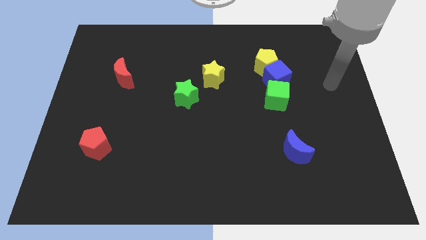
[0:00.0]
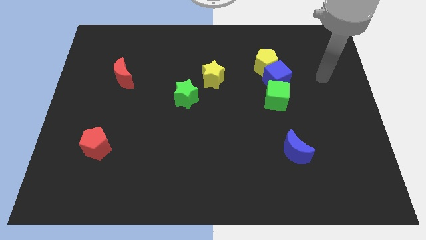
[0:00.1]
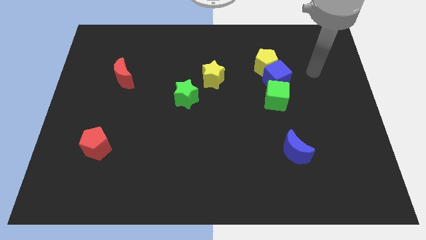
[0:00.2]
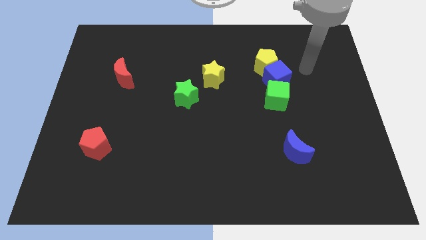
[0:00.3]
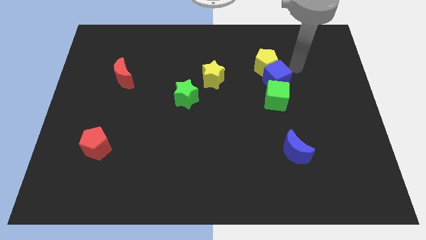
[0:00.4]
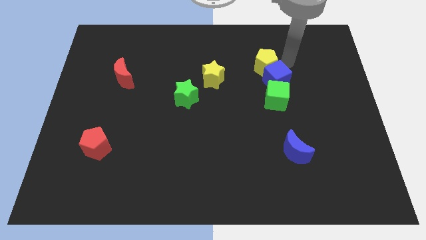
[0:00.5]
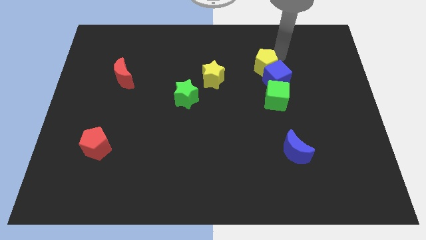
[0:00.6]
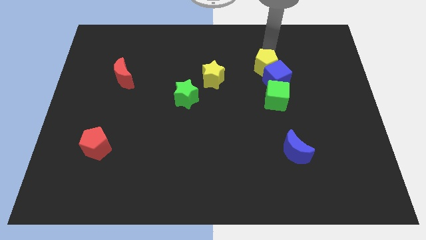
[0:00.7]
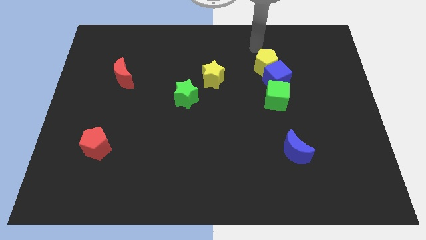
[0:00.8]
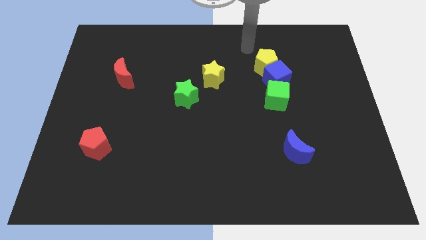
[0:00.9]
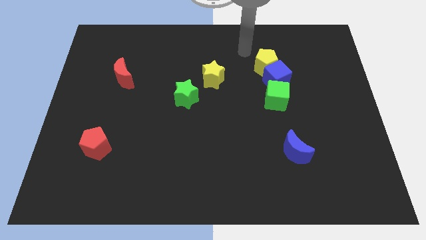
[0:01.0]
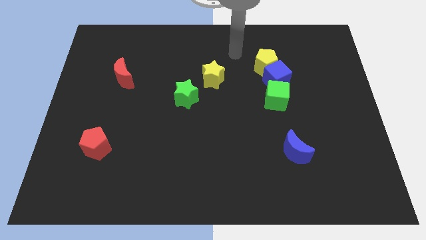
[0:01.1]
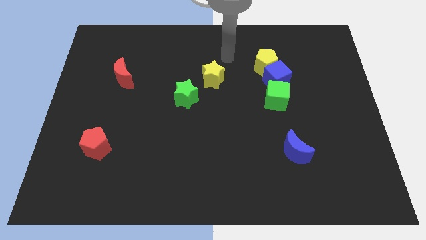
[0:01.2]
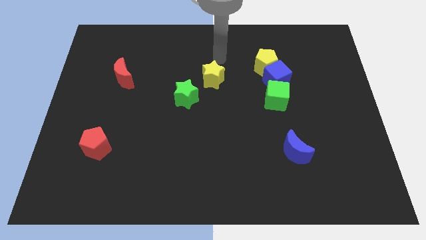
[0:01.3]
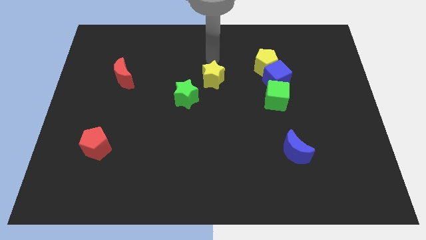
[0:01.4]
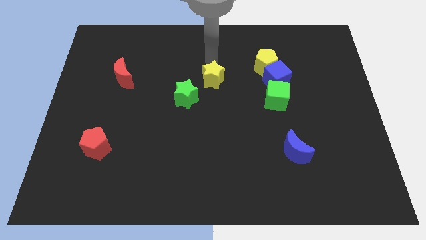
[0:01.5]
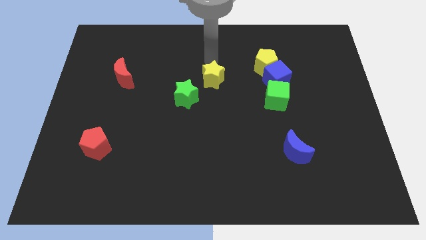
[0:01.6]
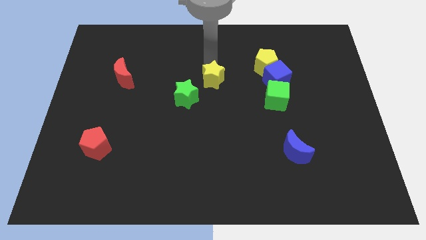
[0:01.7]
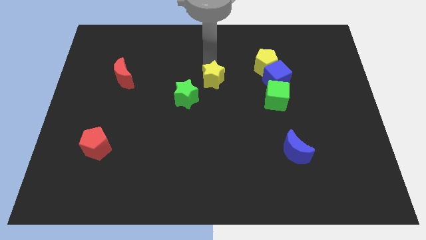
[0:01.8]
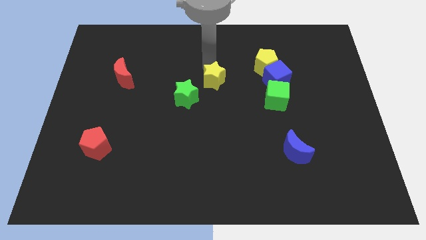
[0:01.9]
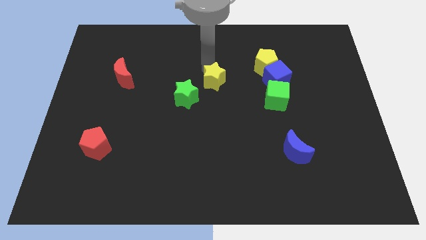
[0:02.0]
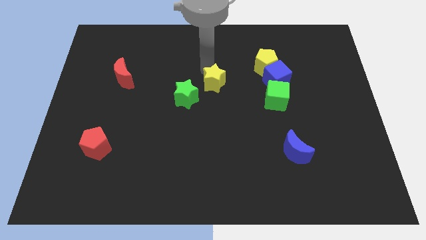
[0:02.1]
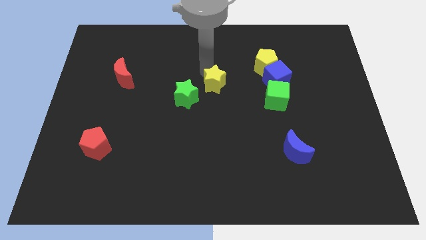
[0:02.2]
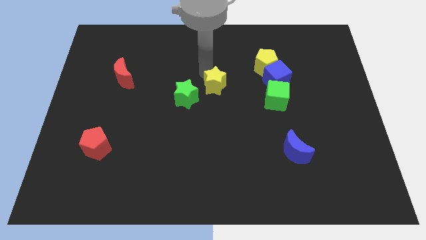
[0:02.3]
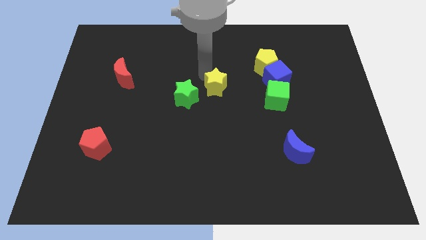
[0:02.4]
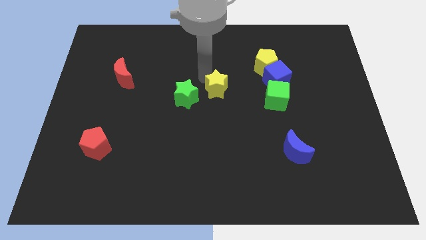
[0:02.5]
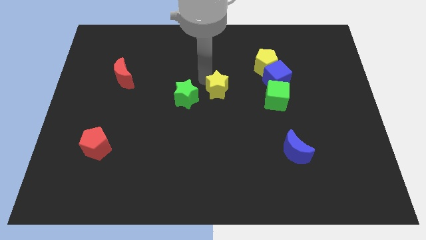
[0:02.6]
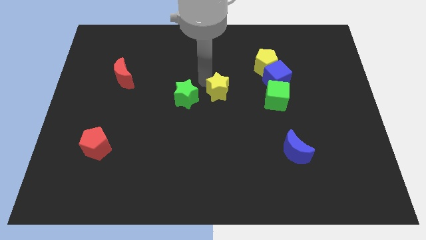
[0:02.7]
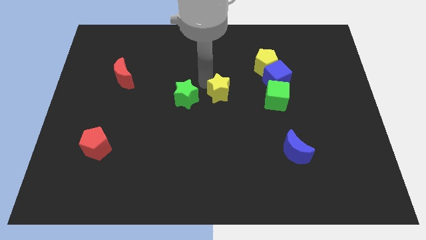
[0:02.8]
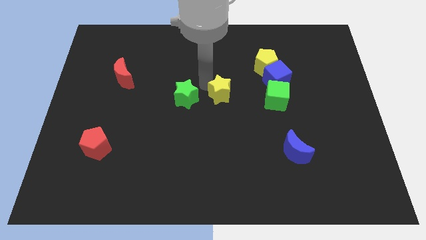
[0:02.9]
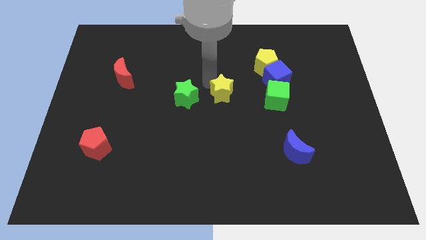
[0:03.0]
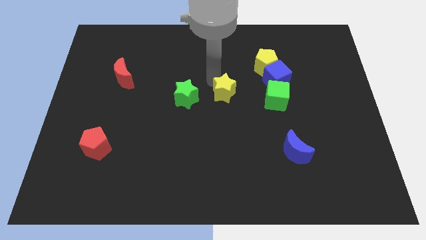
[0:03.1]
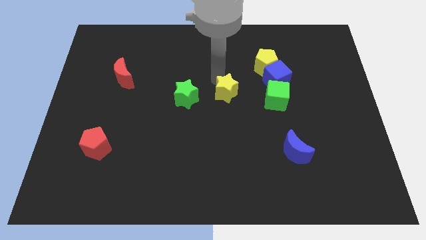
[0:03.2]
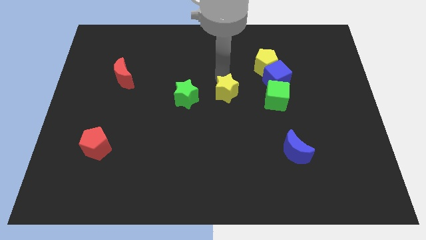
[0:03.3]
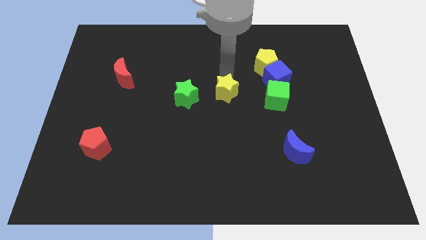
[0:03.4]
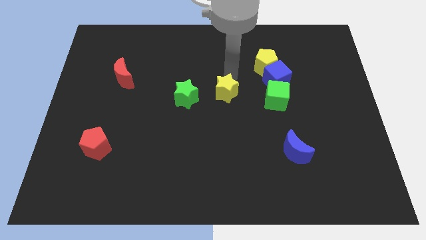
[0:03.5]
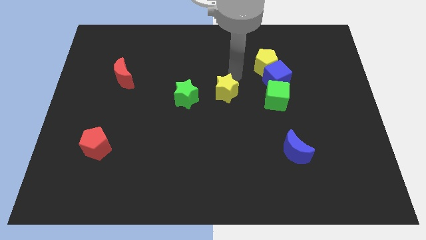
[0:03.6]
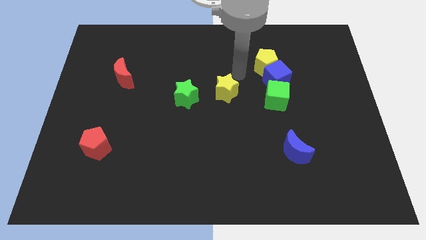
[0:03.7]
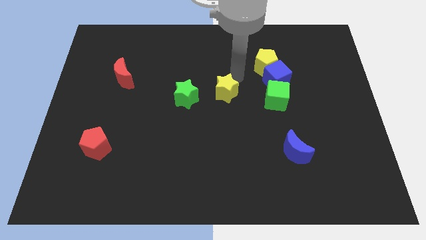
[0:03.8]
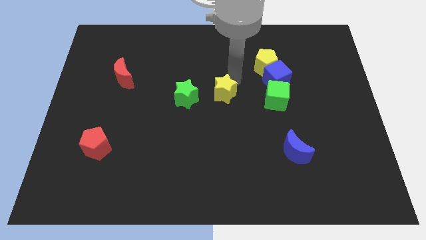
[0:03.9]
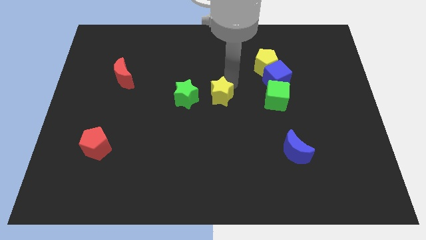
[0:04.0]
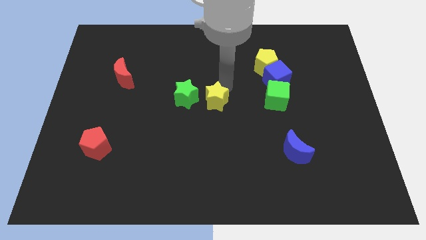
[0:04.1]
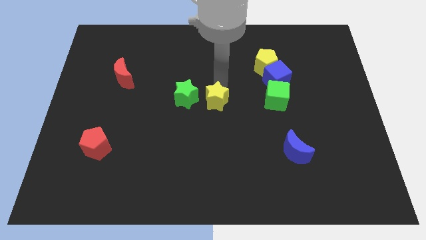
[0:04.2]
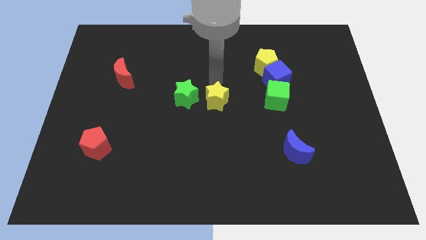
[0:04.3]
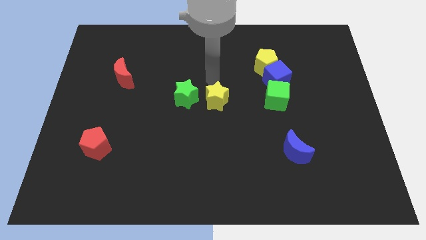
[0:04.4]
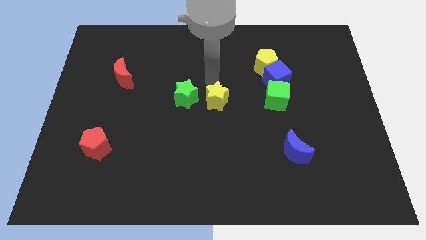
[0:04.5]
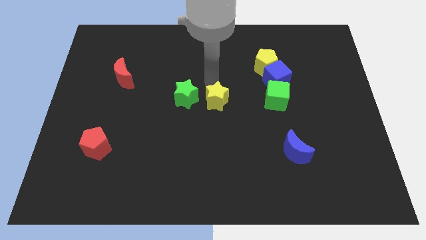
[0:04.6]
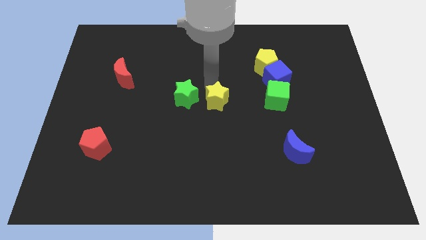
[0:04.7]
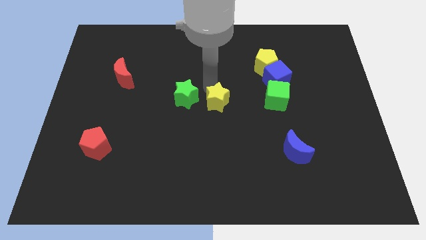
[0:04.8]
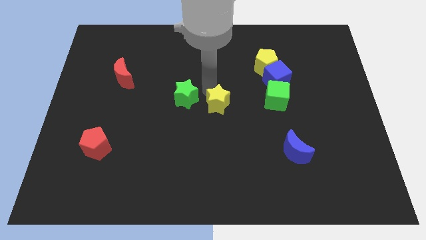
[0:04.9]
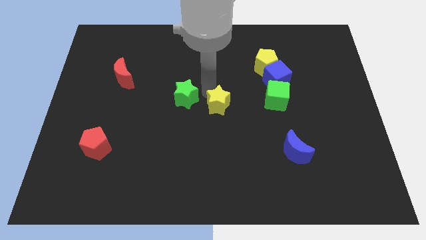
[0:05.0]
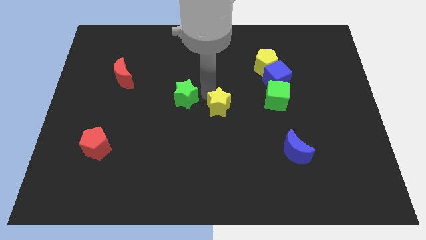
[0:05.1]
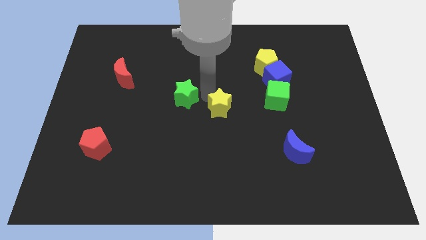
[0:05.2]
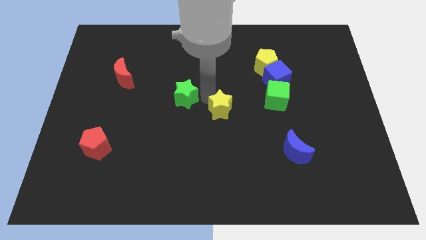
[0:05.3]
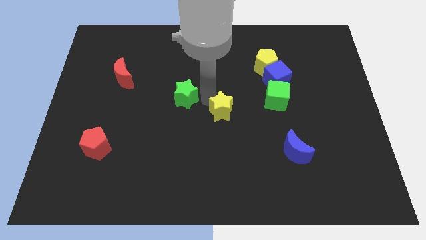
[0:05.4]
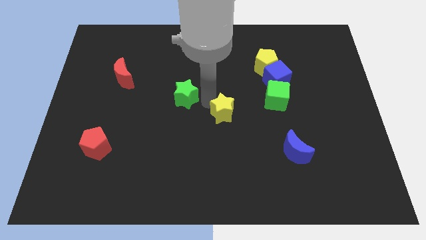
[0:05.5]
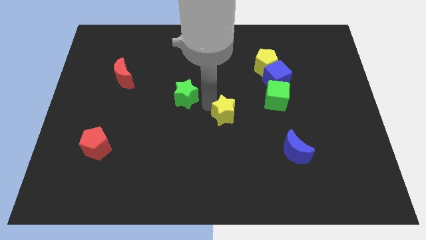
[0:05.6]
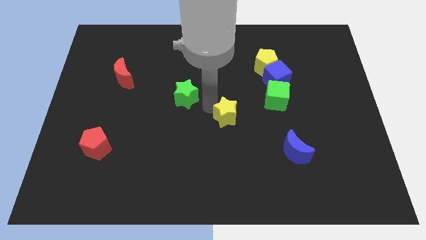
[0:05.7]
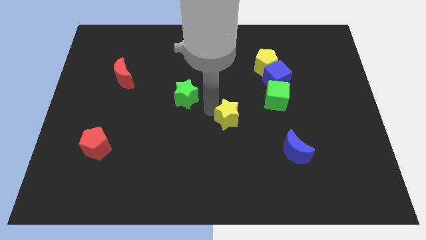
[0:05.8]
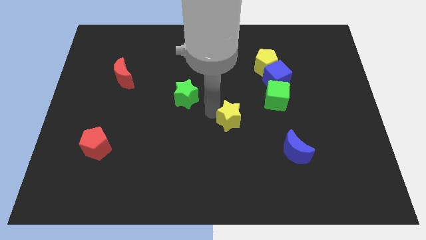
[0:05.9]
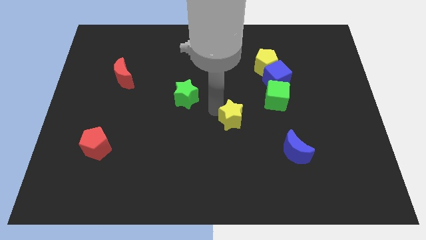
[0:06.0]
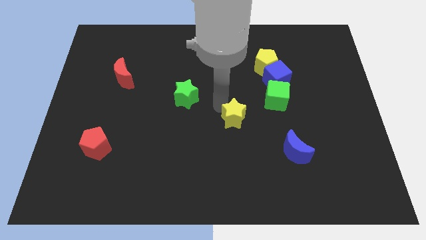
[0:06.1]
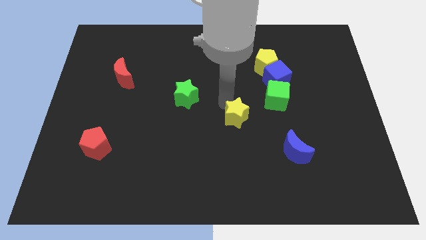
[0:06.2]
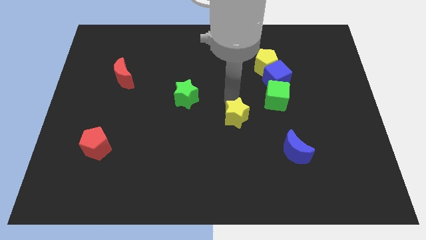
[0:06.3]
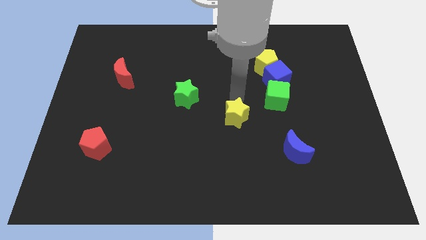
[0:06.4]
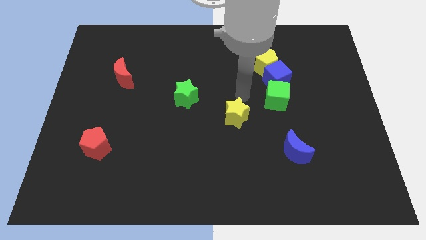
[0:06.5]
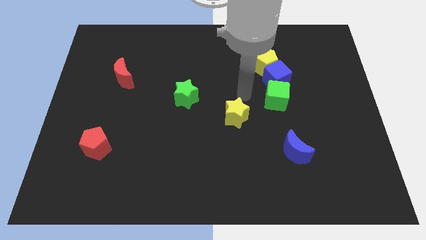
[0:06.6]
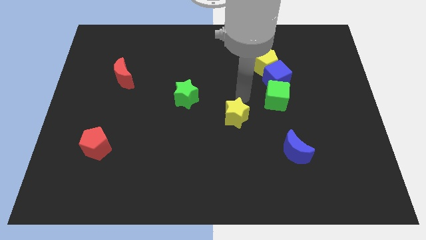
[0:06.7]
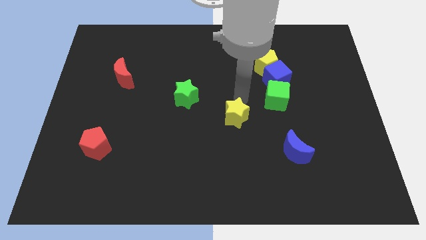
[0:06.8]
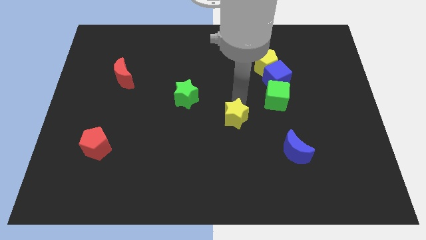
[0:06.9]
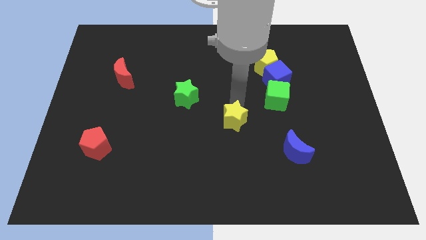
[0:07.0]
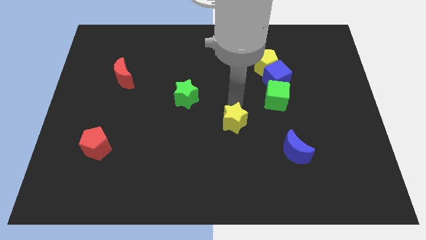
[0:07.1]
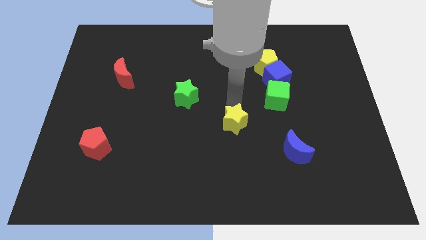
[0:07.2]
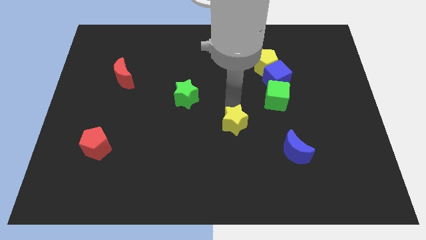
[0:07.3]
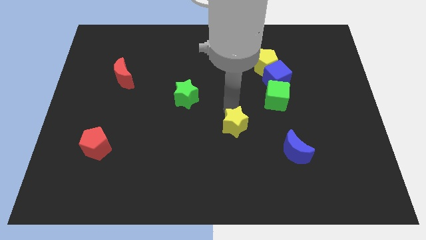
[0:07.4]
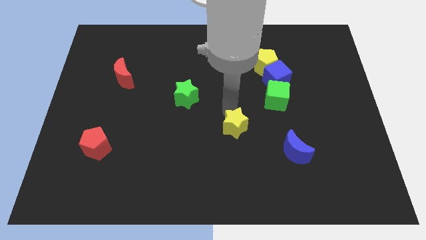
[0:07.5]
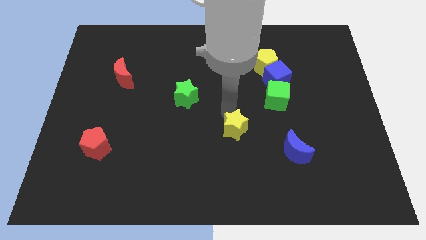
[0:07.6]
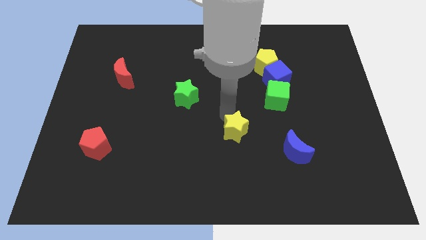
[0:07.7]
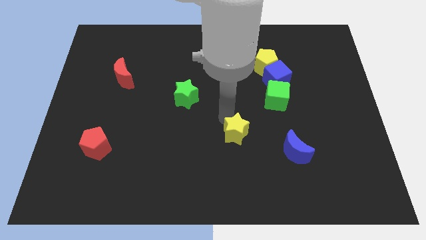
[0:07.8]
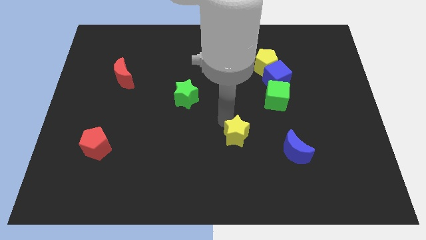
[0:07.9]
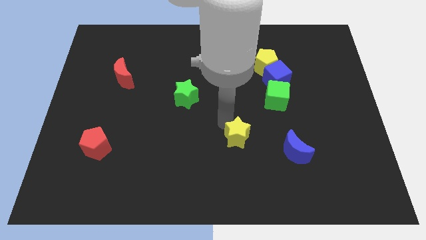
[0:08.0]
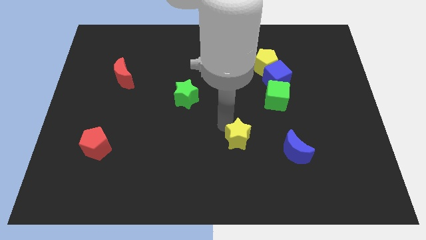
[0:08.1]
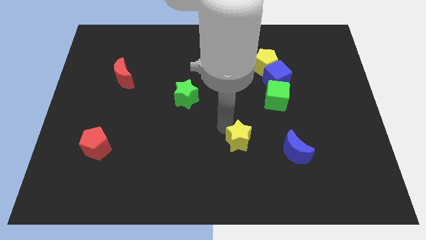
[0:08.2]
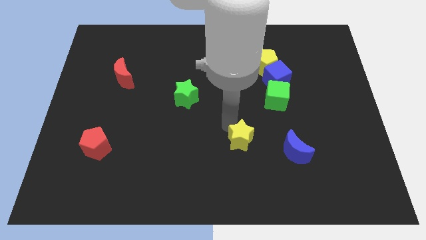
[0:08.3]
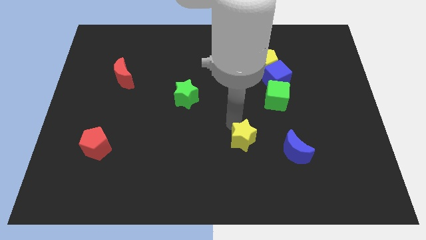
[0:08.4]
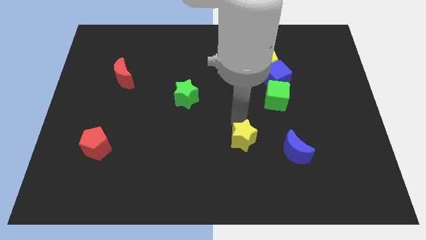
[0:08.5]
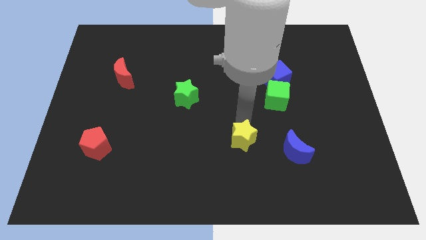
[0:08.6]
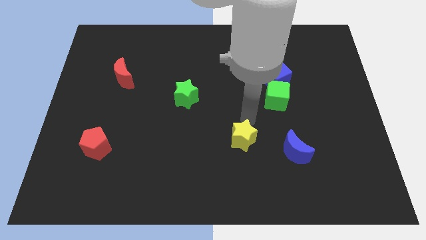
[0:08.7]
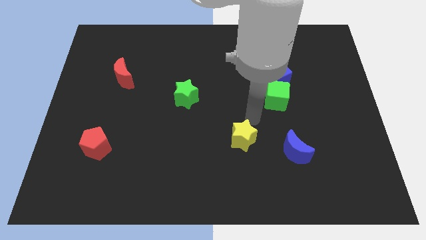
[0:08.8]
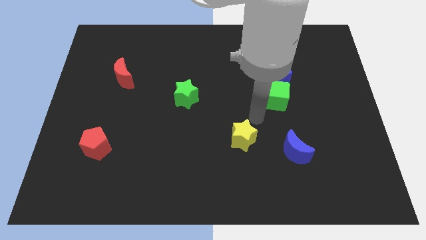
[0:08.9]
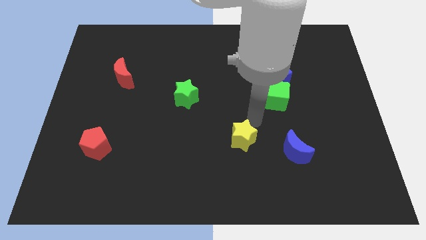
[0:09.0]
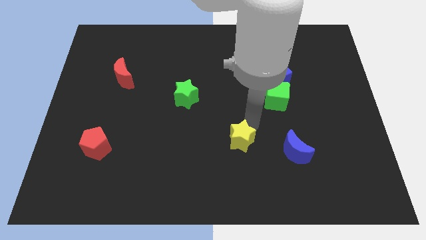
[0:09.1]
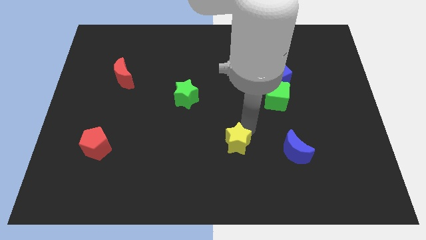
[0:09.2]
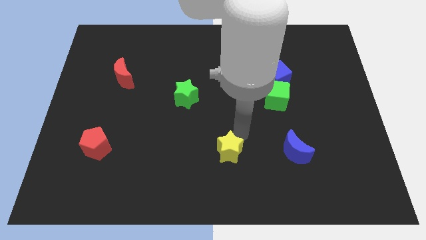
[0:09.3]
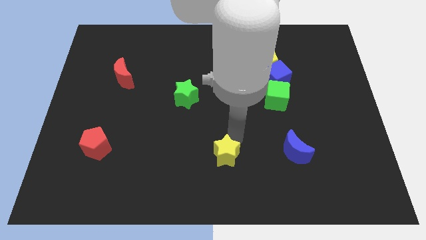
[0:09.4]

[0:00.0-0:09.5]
put the yellow star to the bottom side
